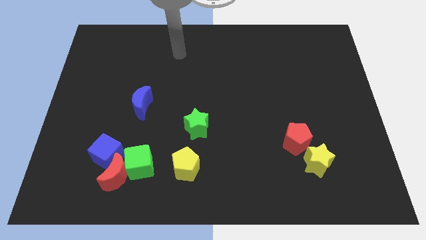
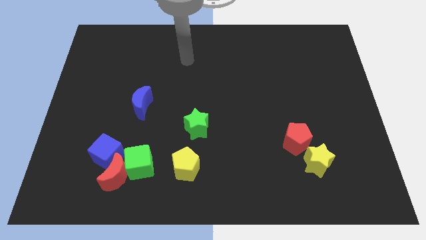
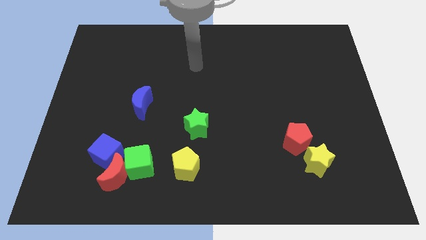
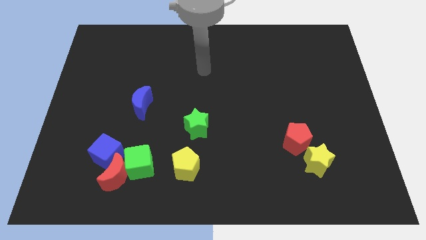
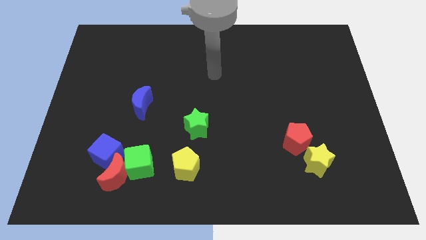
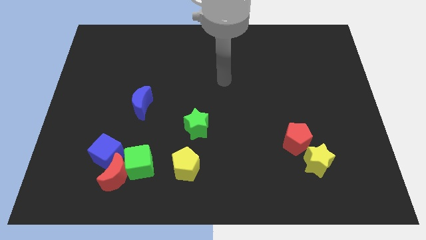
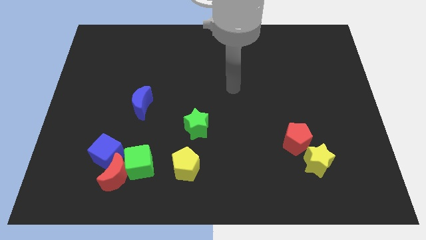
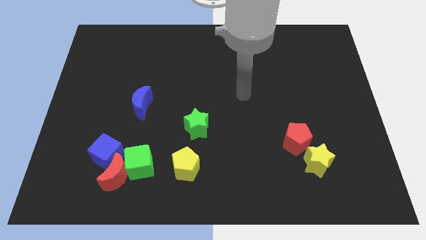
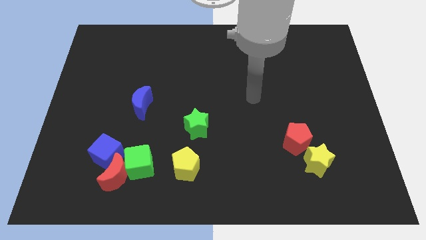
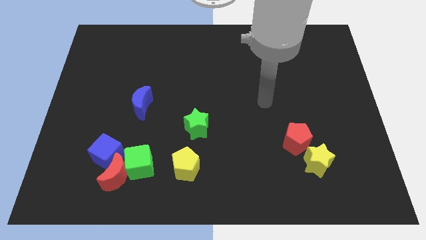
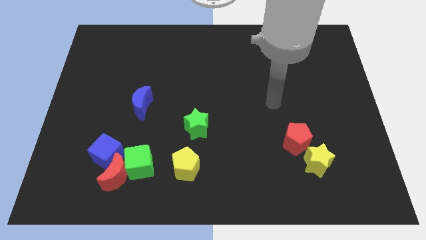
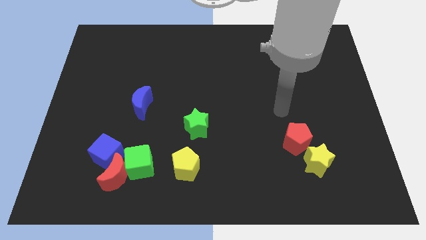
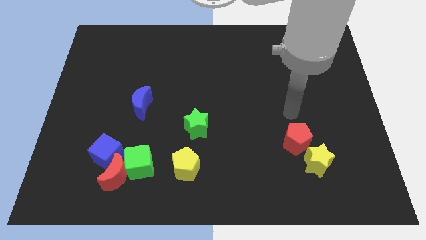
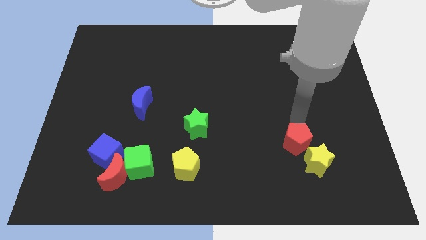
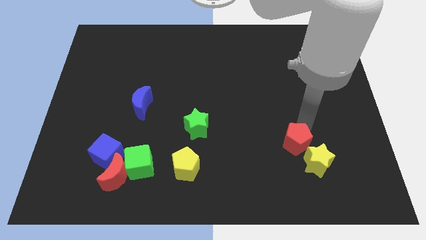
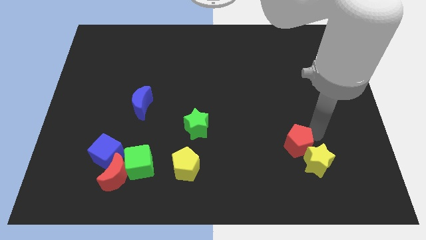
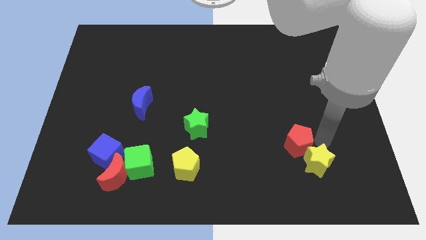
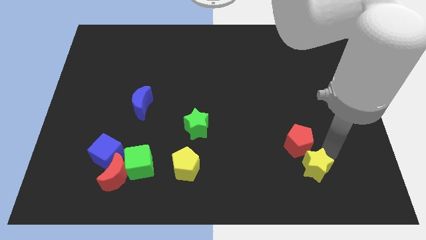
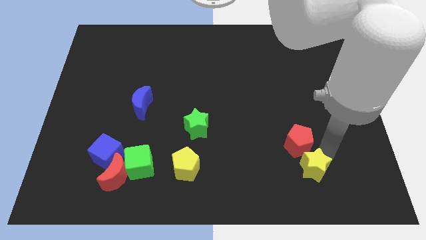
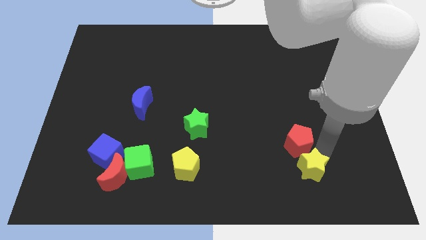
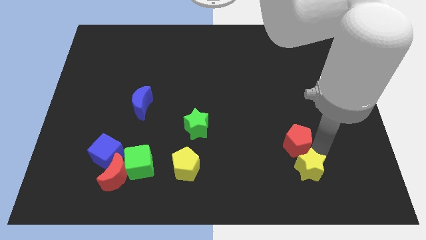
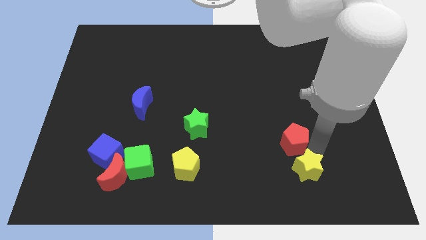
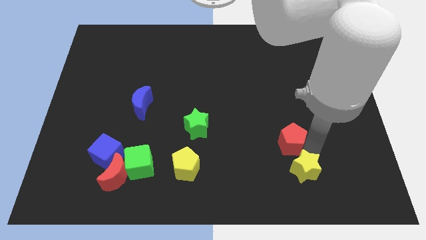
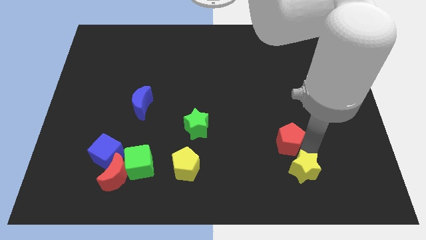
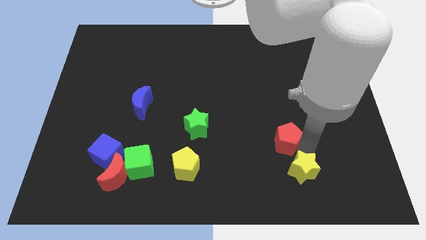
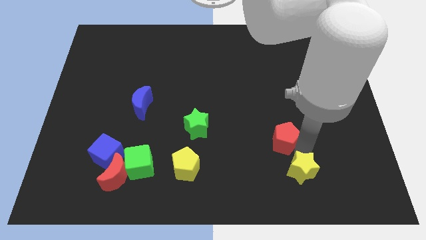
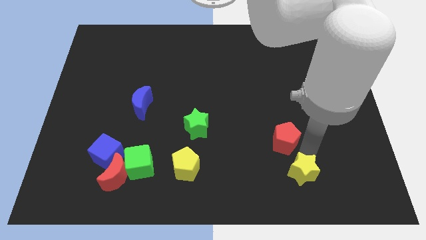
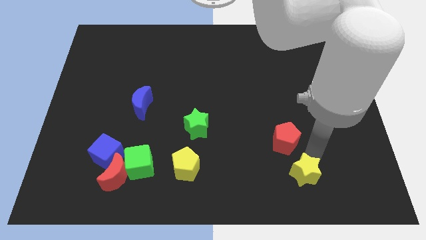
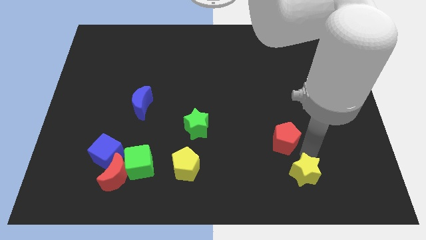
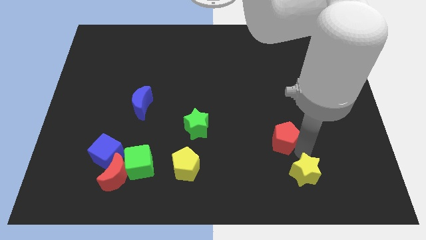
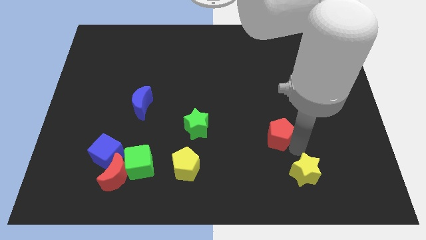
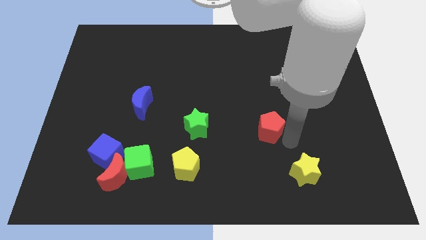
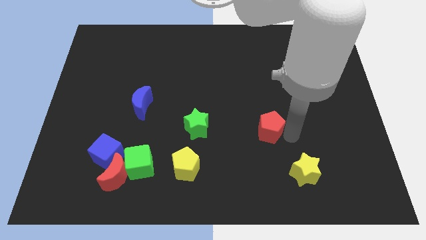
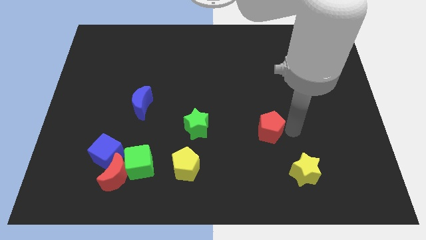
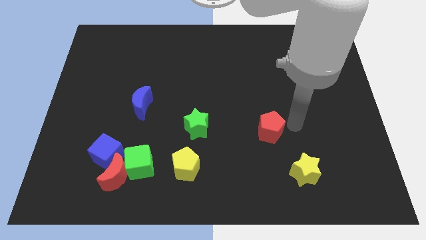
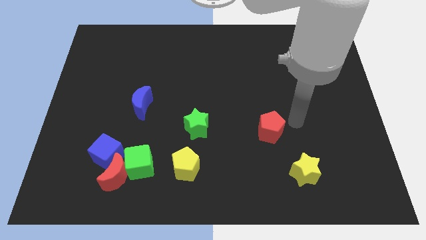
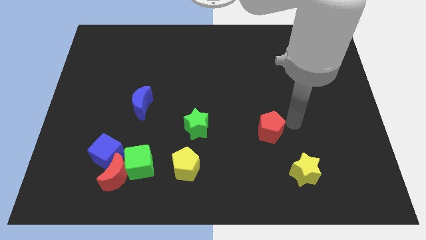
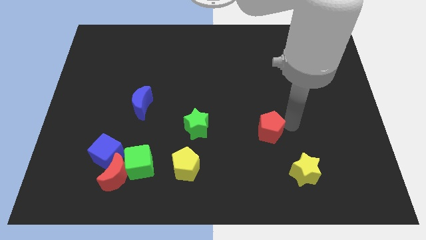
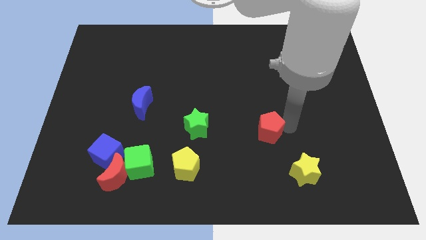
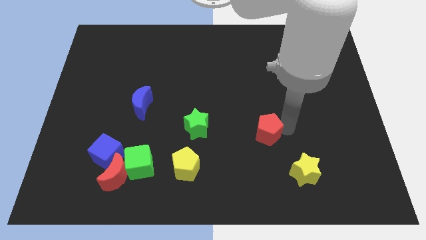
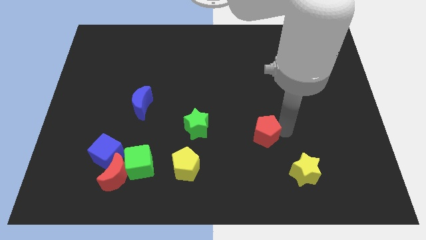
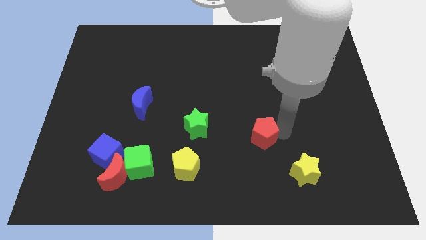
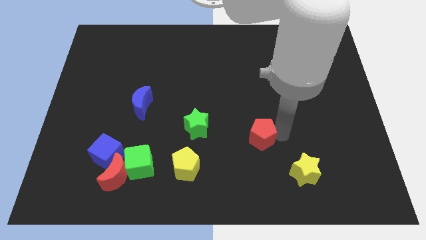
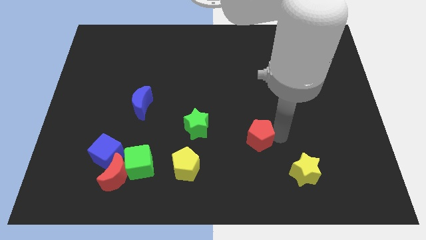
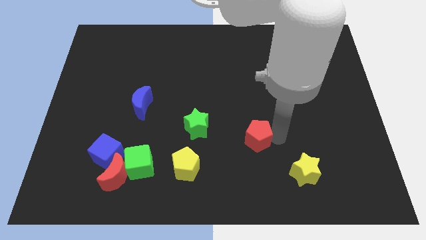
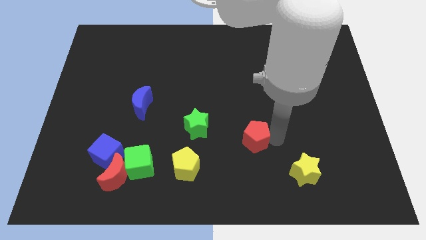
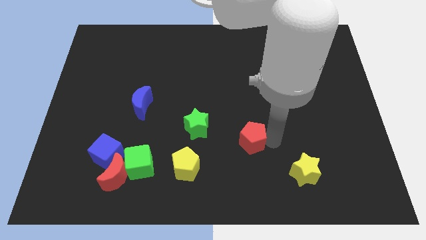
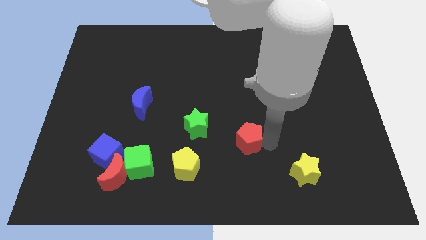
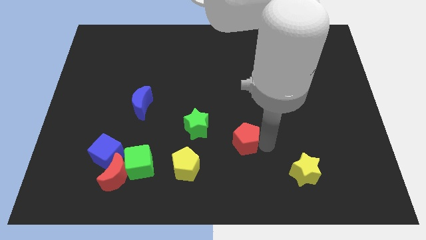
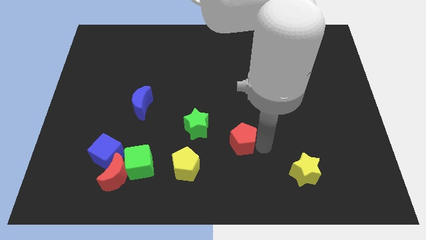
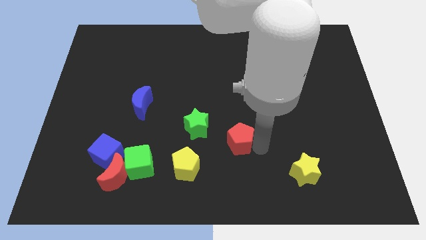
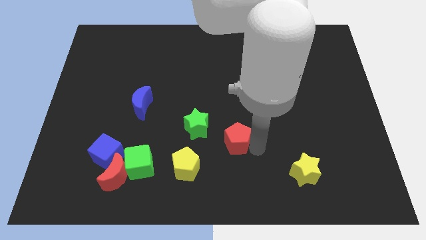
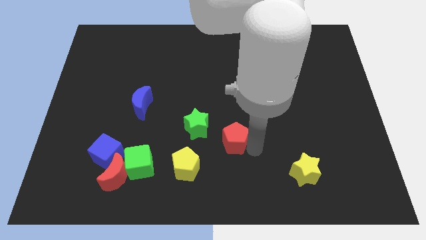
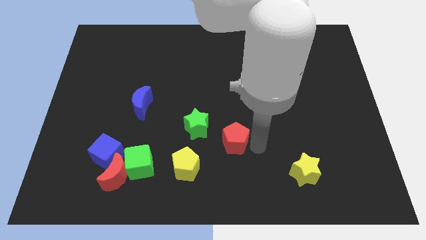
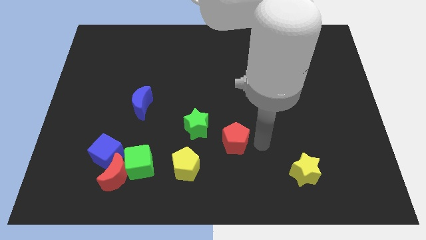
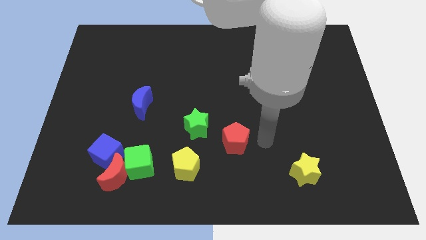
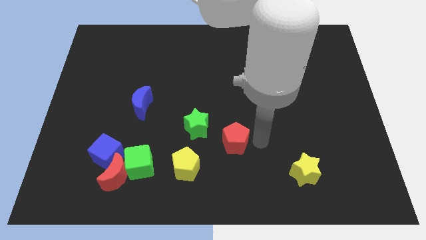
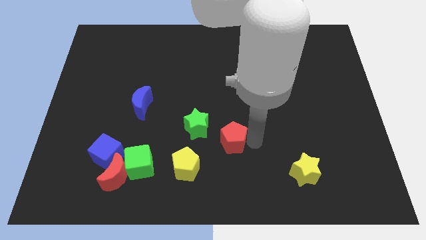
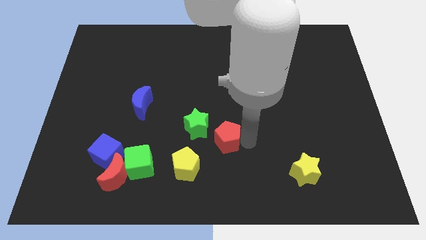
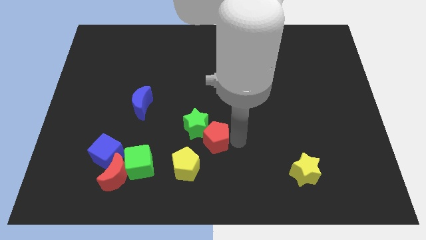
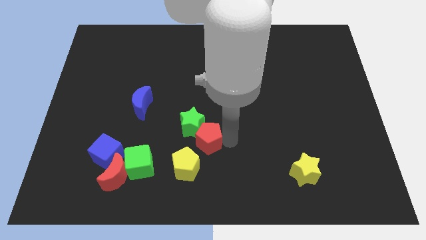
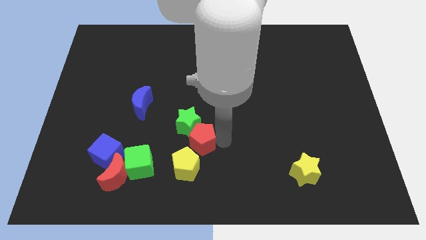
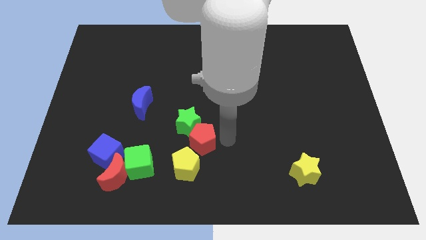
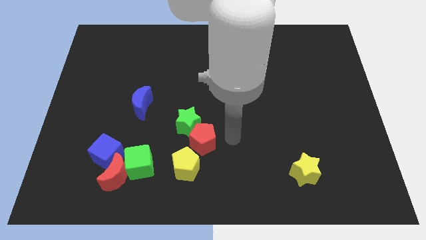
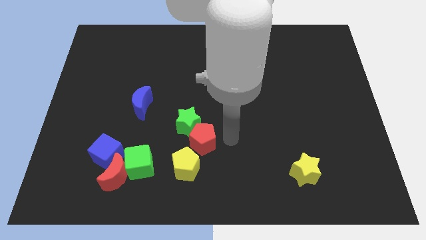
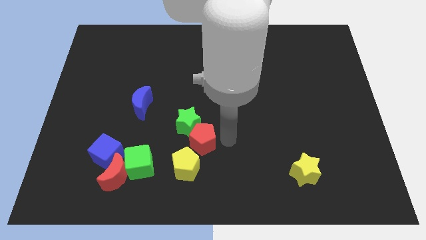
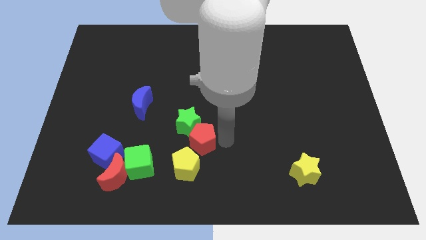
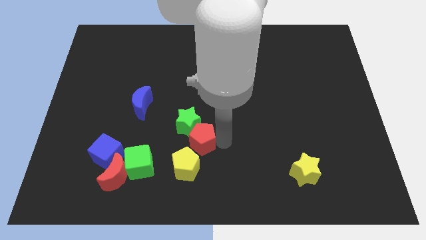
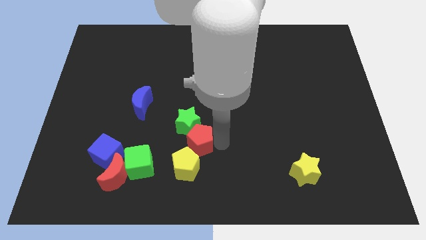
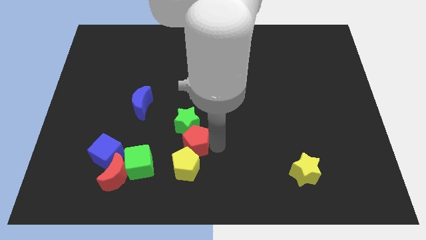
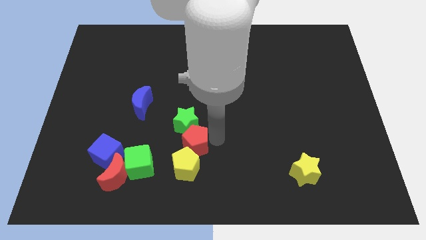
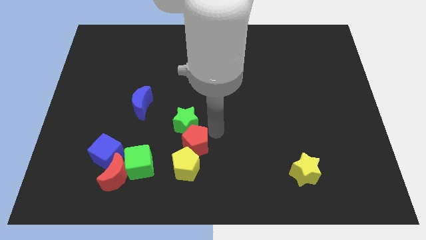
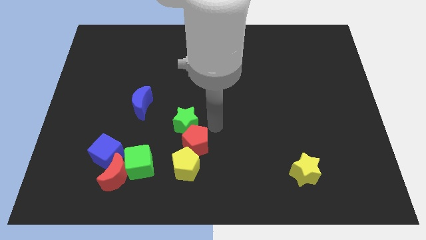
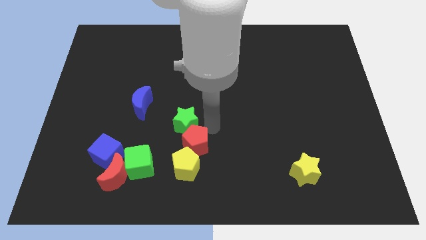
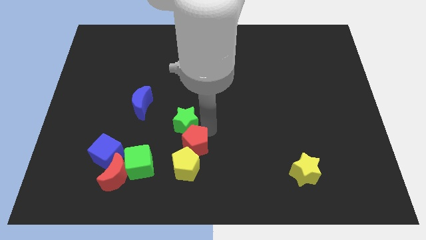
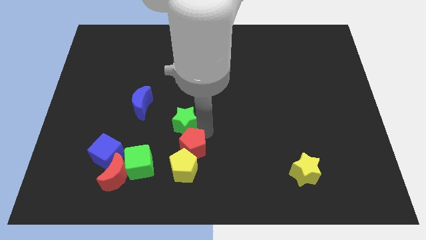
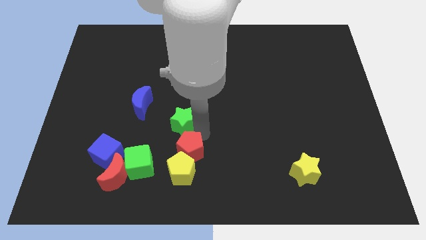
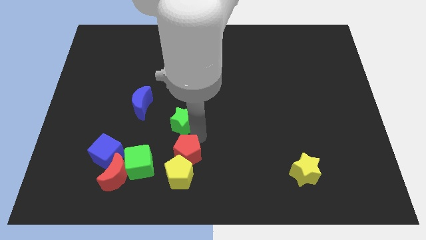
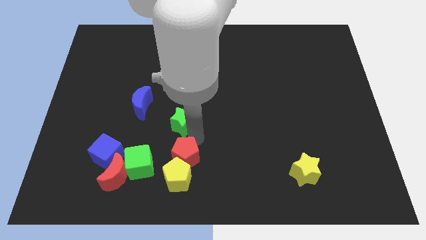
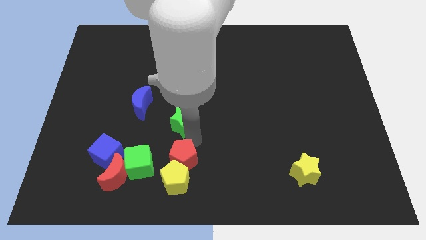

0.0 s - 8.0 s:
slide the red pentagon just right of the red moon

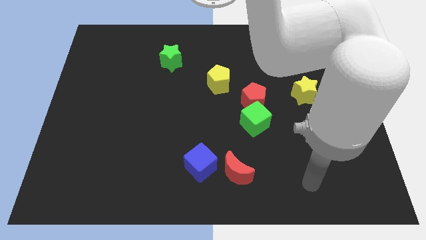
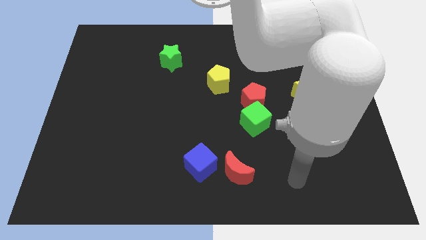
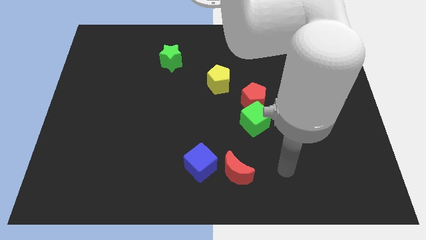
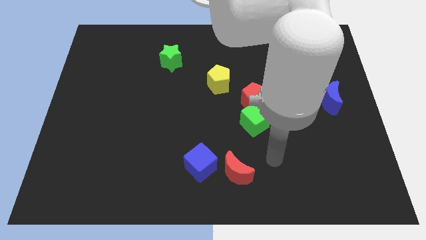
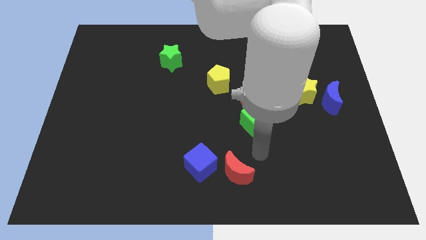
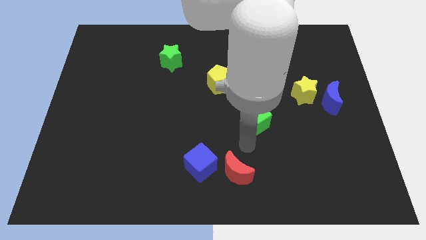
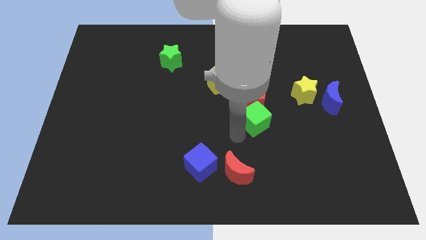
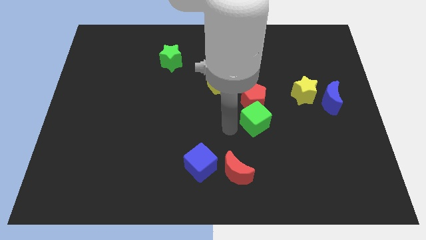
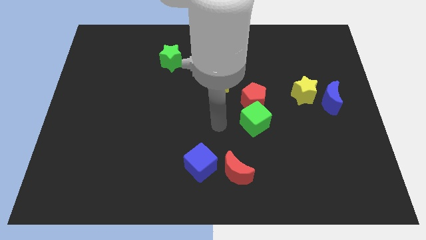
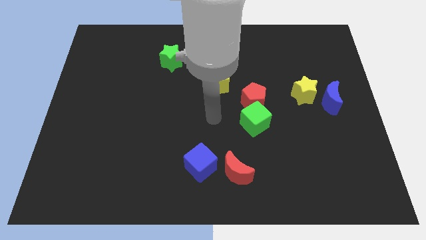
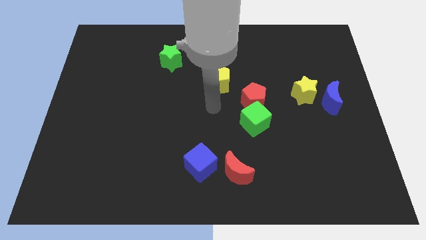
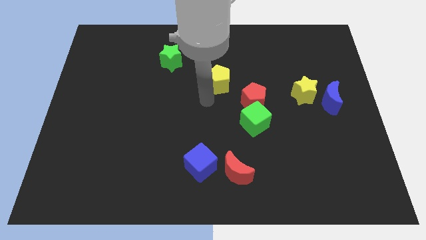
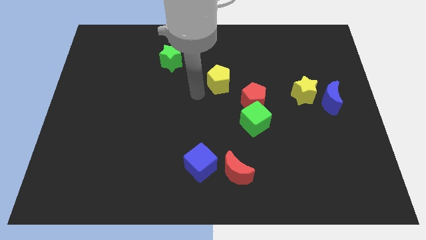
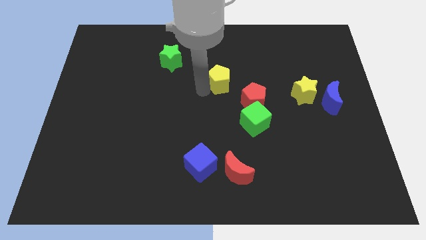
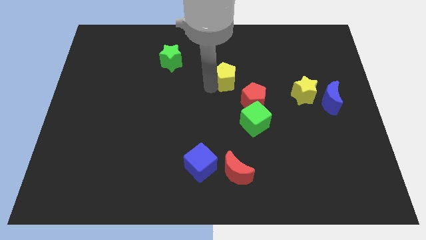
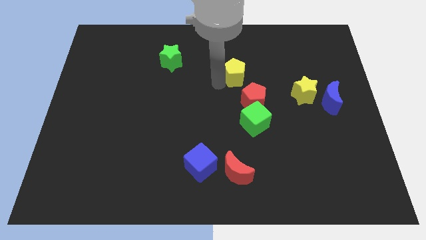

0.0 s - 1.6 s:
slide the yellow pentagon to the top of the red pentagon
